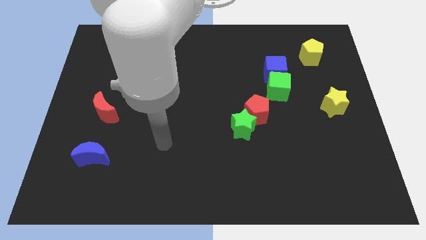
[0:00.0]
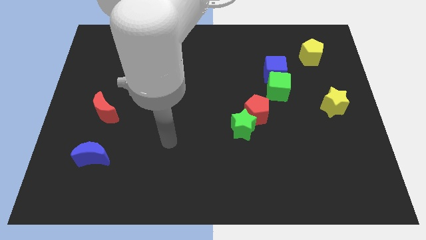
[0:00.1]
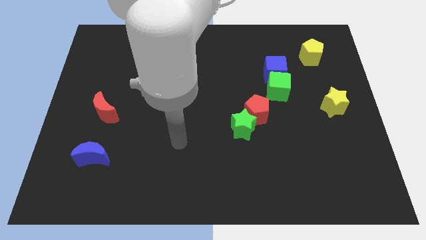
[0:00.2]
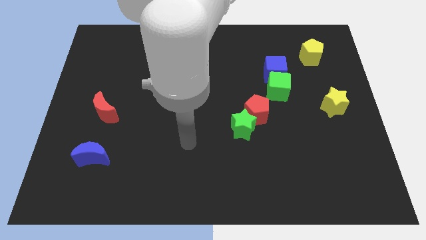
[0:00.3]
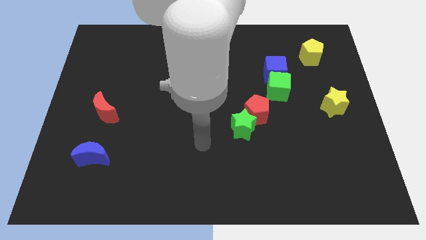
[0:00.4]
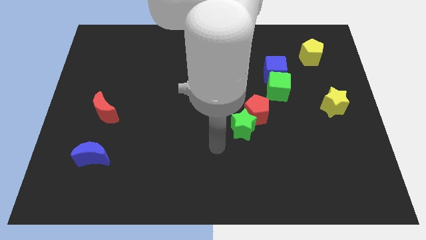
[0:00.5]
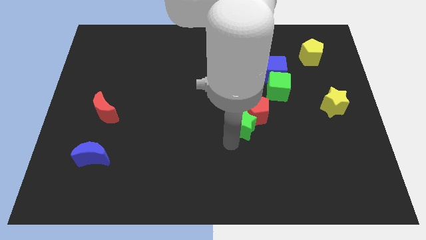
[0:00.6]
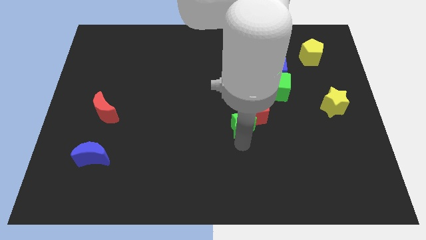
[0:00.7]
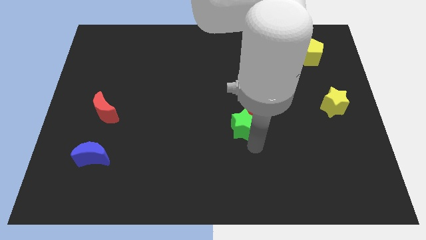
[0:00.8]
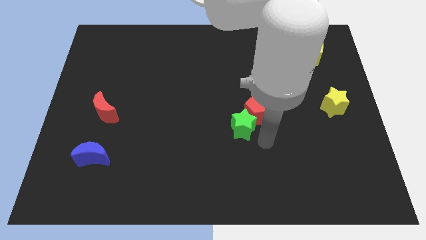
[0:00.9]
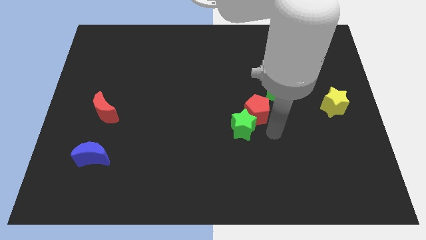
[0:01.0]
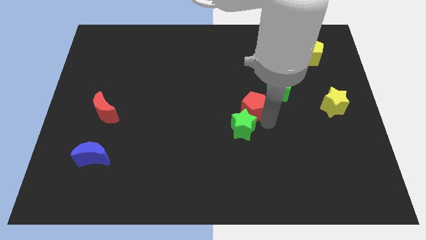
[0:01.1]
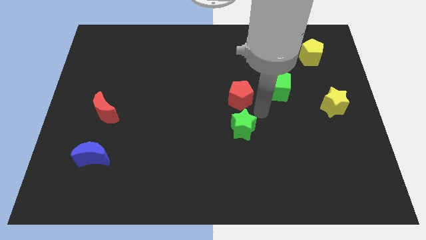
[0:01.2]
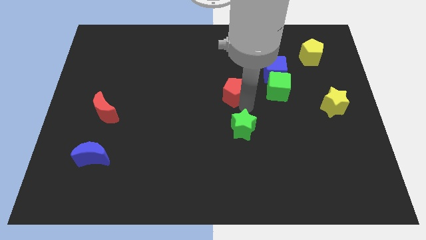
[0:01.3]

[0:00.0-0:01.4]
separate the green star from the red pentagon

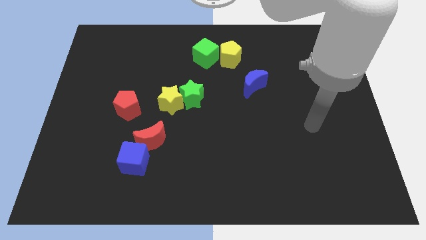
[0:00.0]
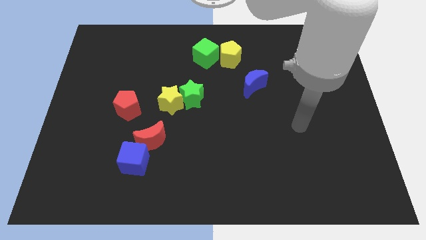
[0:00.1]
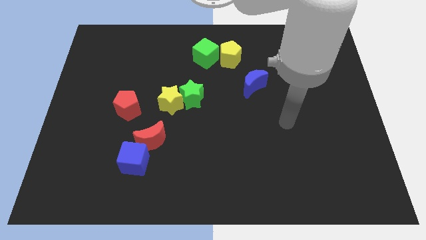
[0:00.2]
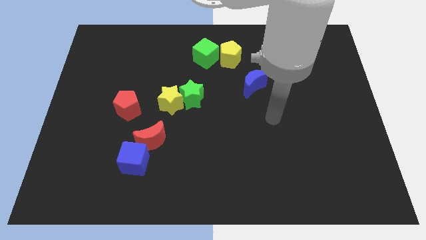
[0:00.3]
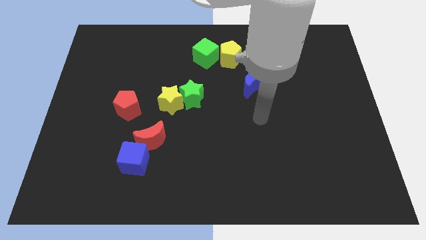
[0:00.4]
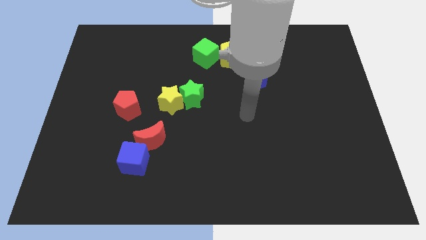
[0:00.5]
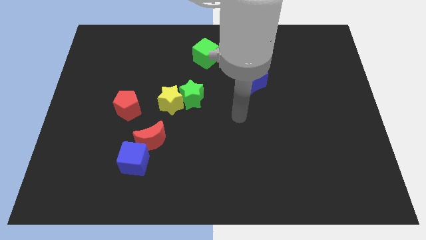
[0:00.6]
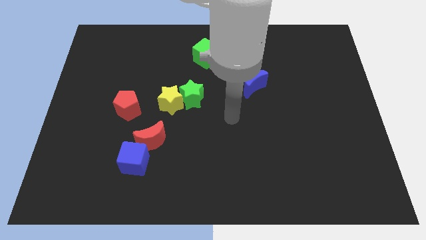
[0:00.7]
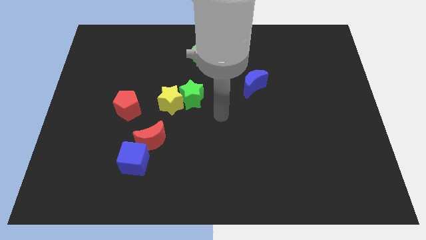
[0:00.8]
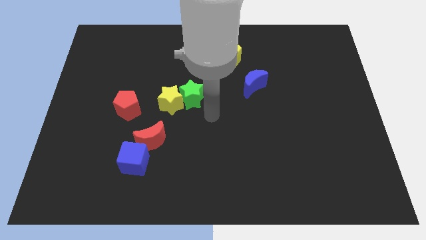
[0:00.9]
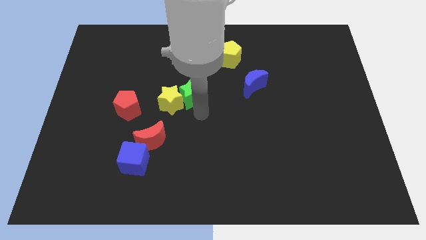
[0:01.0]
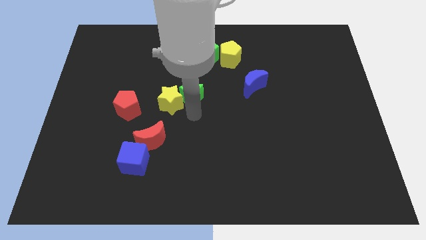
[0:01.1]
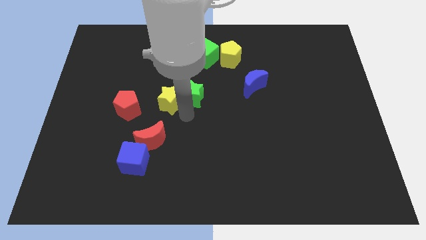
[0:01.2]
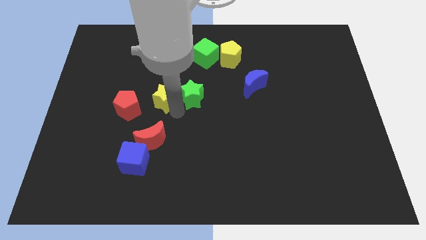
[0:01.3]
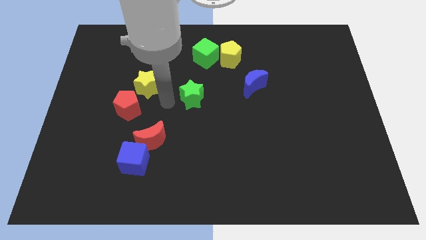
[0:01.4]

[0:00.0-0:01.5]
move the green star away from the yellow star

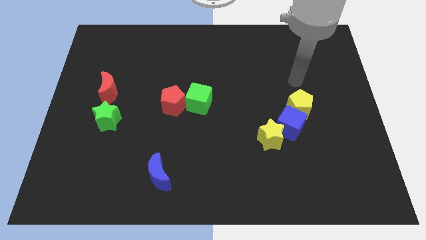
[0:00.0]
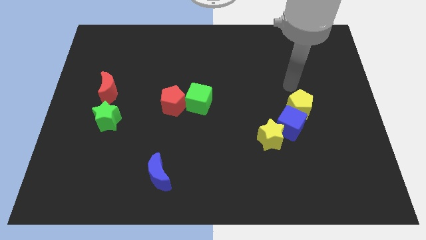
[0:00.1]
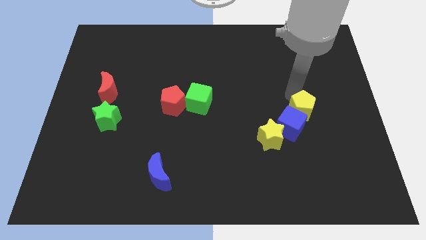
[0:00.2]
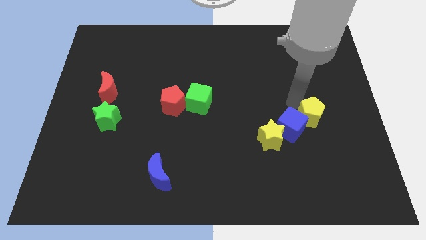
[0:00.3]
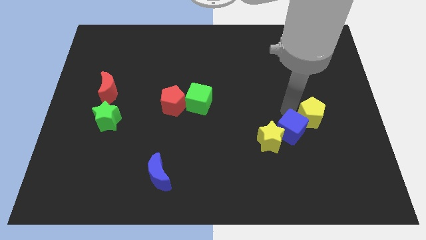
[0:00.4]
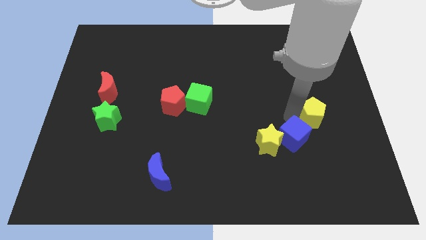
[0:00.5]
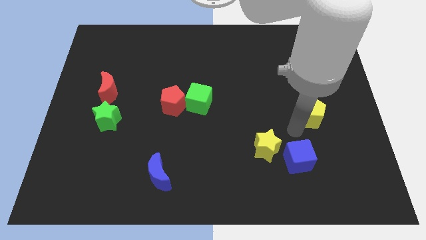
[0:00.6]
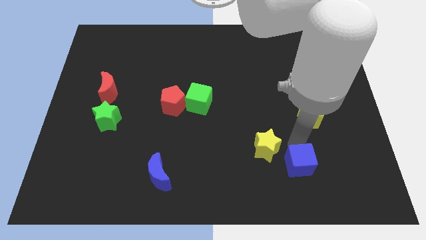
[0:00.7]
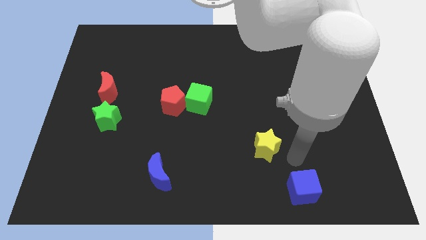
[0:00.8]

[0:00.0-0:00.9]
separate the yellow star from the blue cube

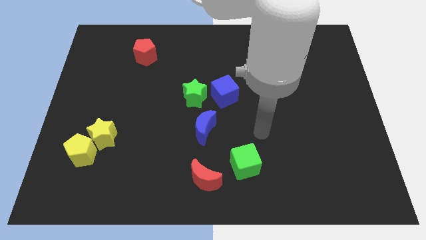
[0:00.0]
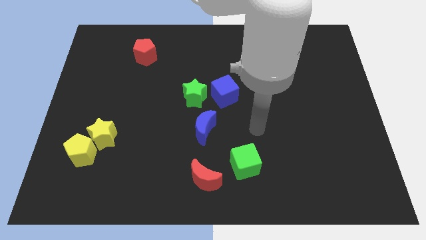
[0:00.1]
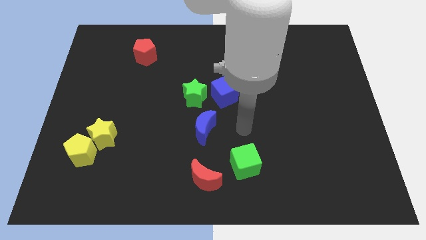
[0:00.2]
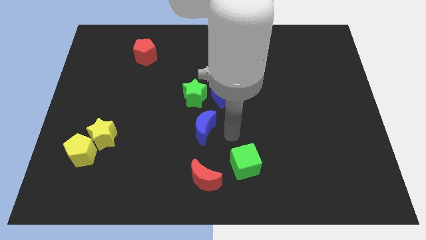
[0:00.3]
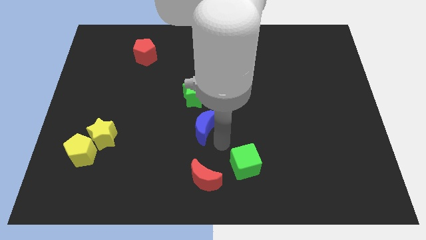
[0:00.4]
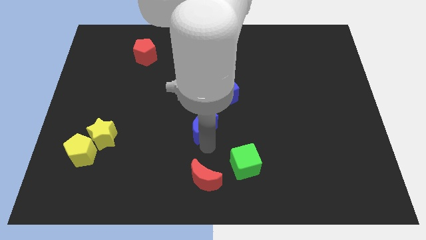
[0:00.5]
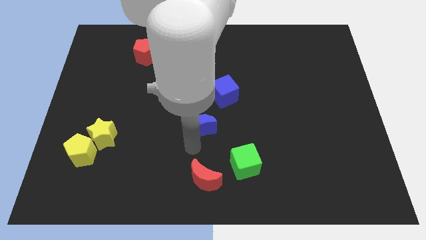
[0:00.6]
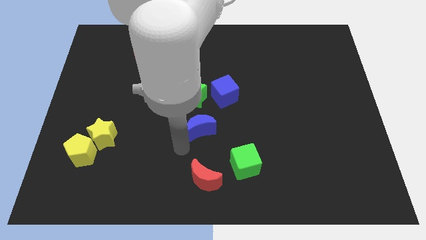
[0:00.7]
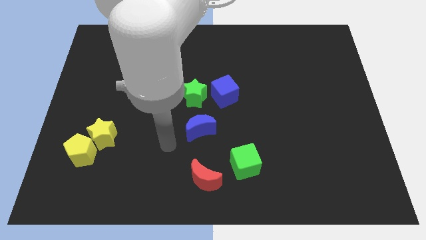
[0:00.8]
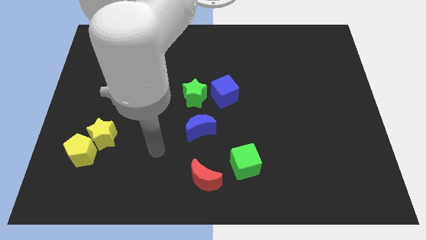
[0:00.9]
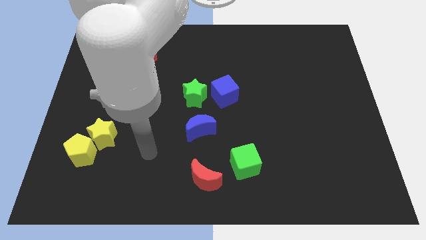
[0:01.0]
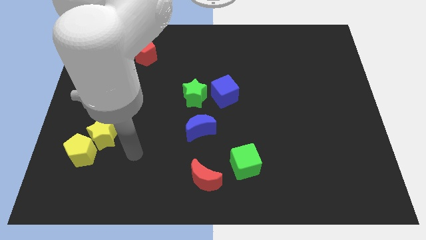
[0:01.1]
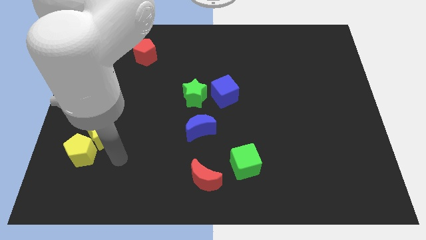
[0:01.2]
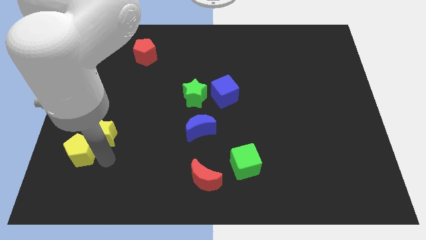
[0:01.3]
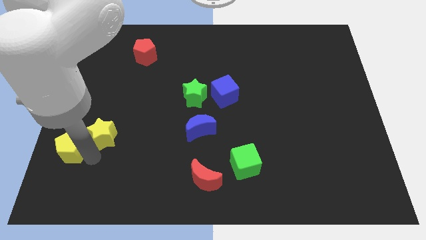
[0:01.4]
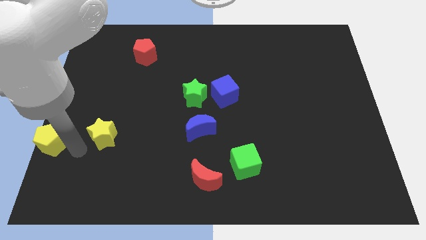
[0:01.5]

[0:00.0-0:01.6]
move the yellow star away from the yellow pentagon

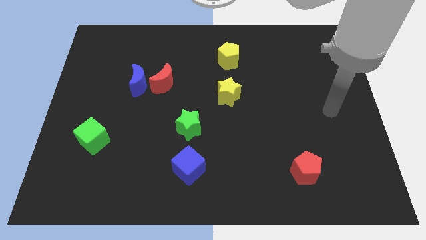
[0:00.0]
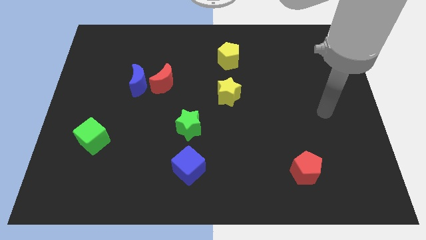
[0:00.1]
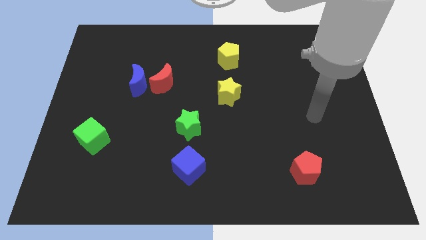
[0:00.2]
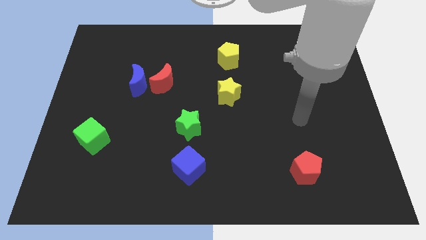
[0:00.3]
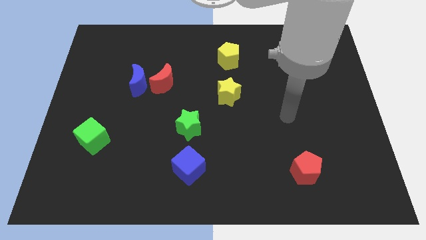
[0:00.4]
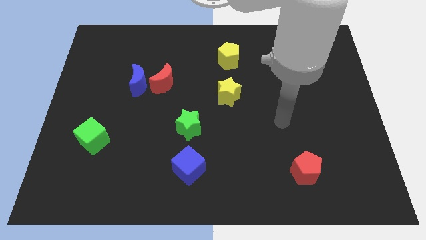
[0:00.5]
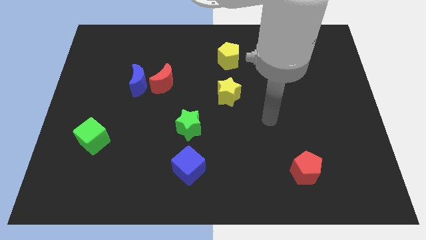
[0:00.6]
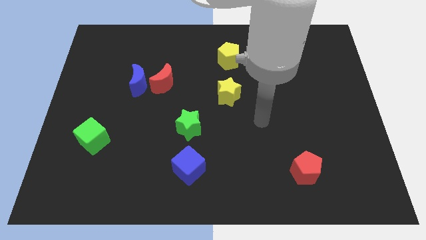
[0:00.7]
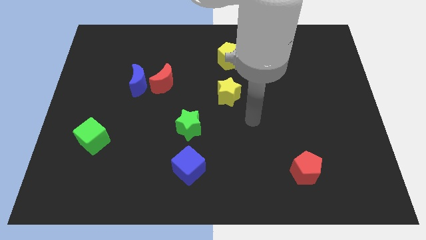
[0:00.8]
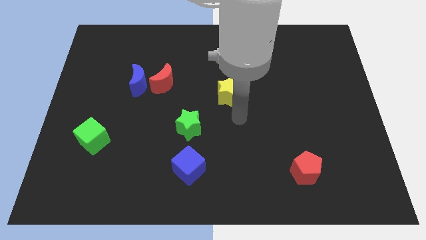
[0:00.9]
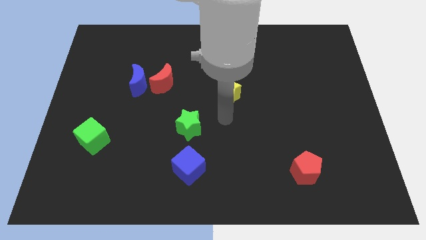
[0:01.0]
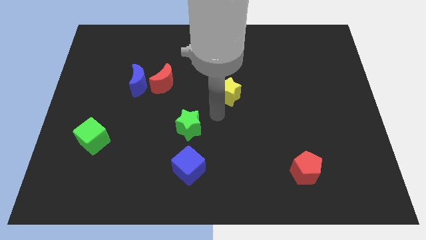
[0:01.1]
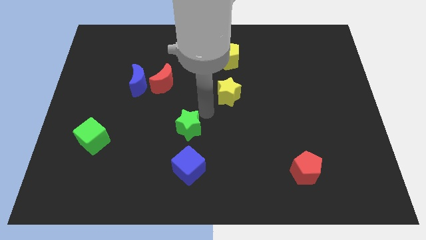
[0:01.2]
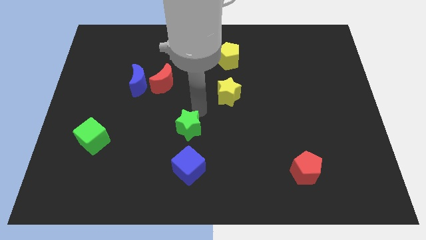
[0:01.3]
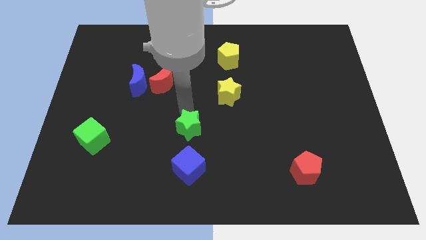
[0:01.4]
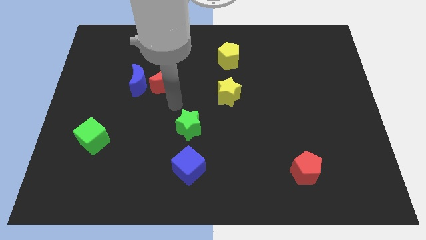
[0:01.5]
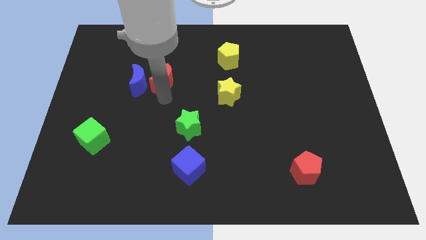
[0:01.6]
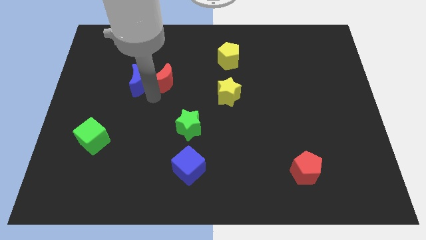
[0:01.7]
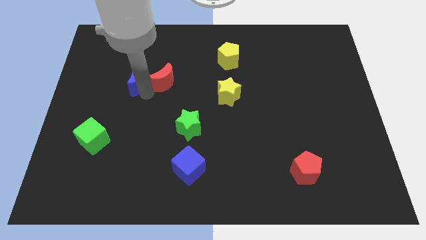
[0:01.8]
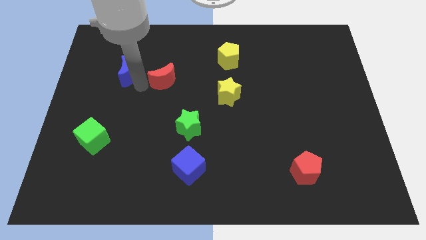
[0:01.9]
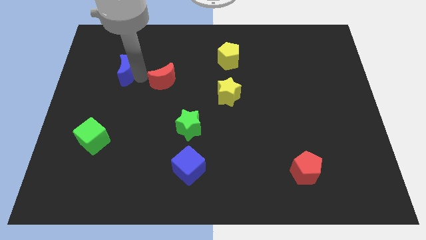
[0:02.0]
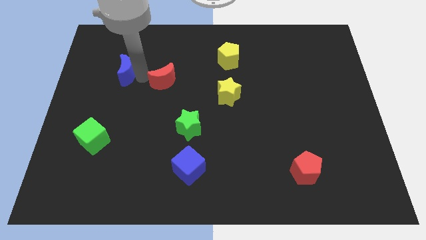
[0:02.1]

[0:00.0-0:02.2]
pull the red moon apart from the blue moon

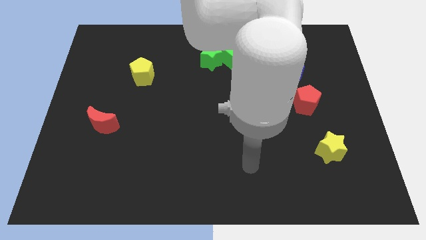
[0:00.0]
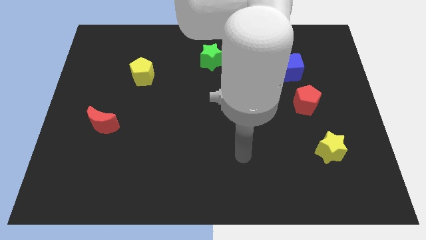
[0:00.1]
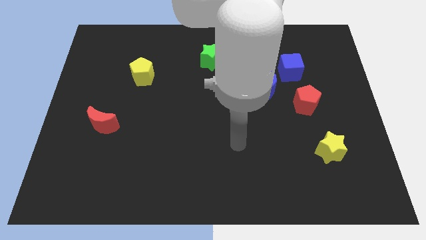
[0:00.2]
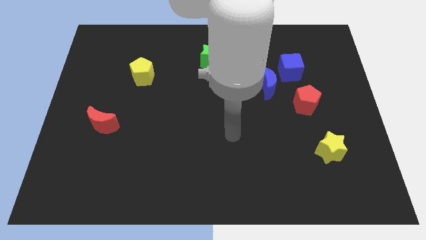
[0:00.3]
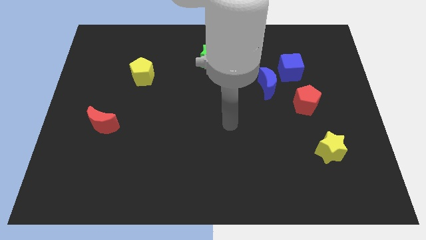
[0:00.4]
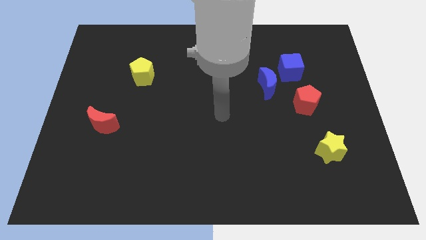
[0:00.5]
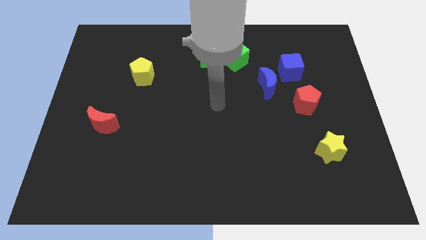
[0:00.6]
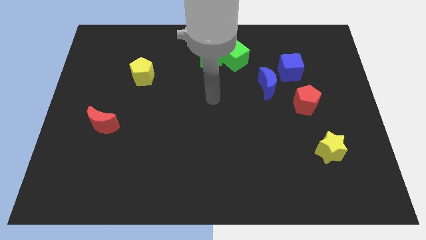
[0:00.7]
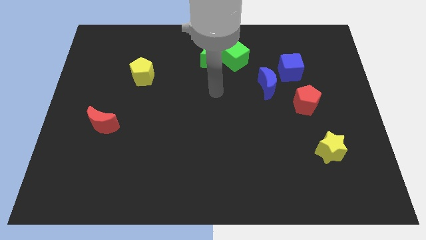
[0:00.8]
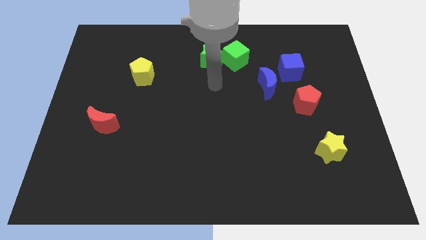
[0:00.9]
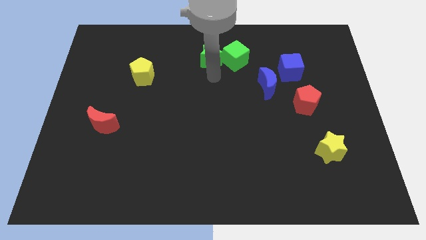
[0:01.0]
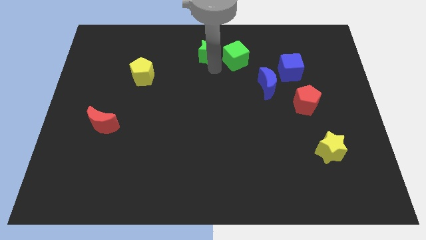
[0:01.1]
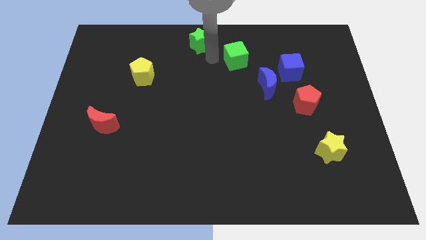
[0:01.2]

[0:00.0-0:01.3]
move the green cube away from the green star

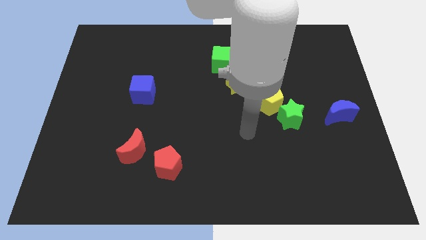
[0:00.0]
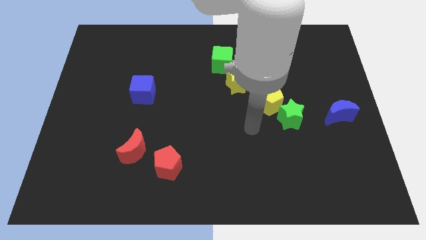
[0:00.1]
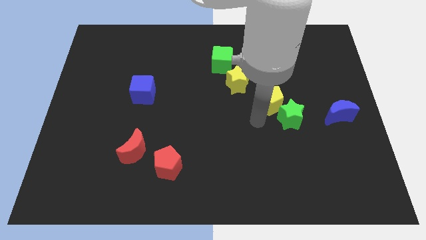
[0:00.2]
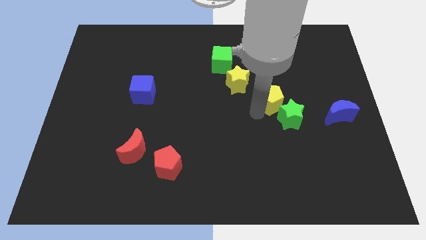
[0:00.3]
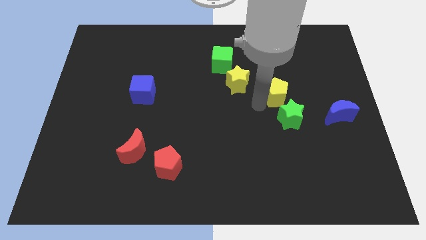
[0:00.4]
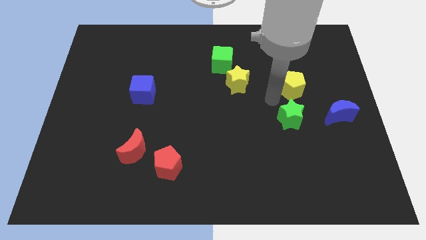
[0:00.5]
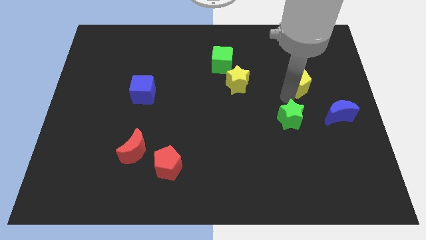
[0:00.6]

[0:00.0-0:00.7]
move the green star away from the yellow pentagon
